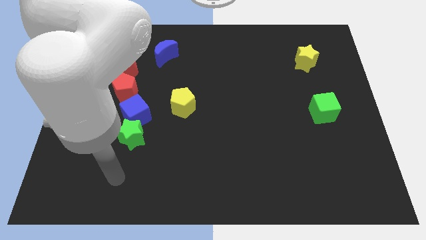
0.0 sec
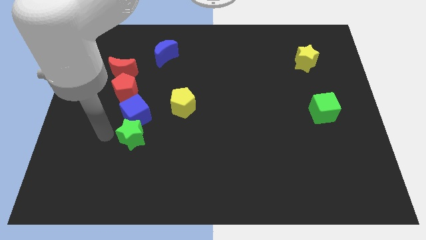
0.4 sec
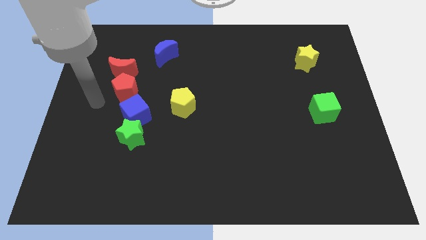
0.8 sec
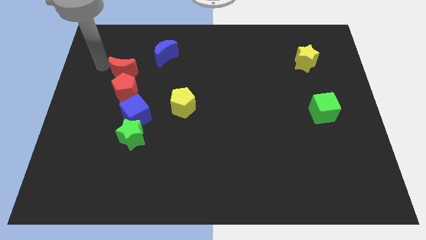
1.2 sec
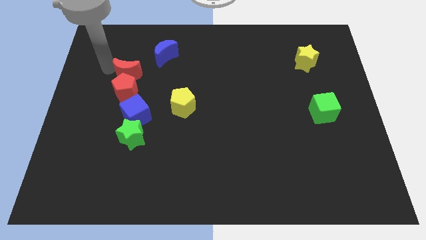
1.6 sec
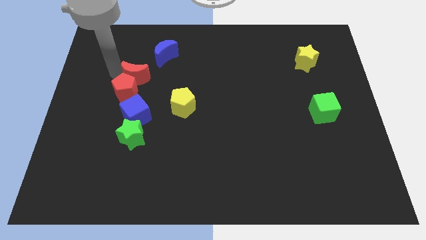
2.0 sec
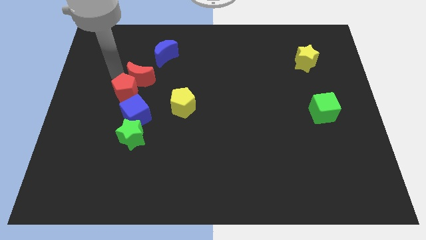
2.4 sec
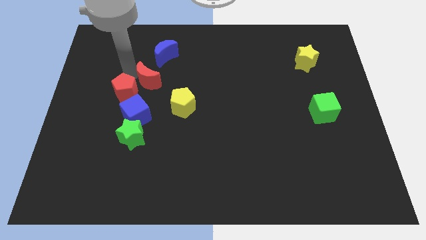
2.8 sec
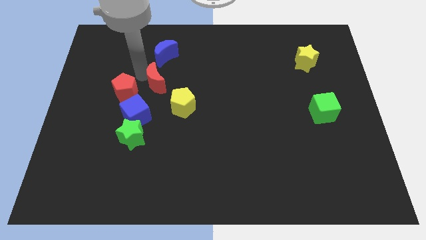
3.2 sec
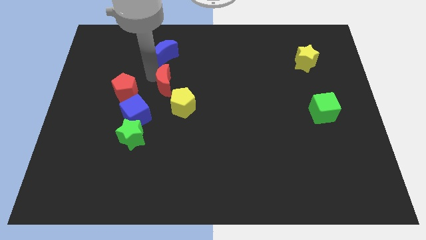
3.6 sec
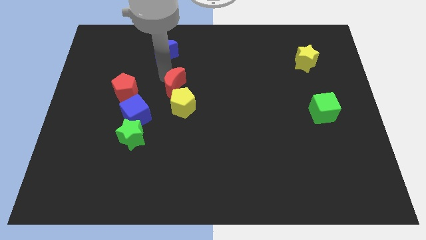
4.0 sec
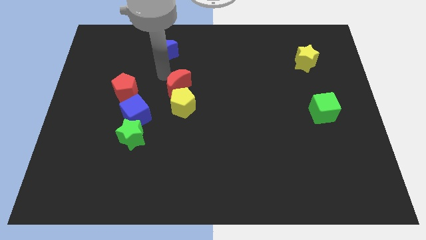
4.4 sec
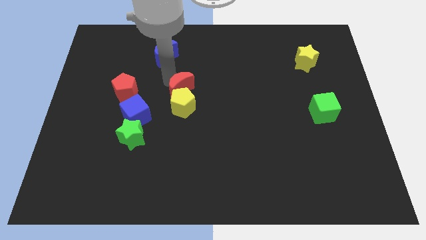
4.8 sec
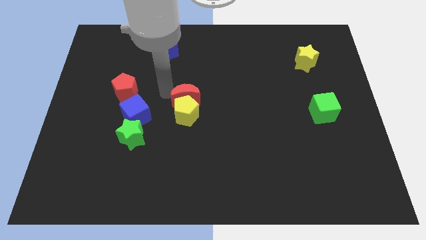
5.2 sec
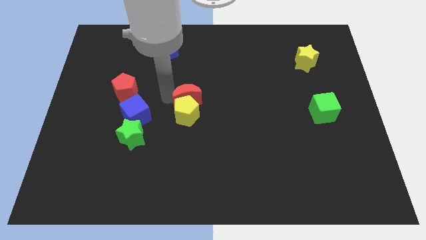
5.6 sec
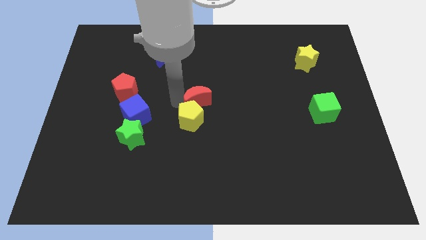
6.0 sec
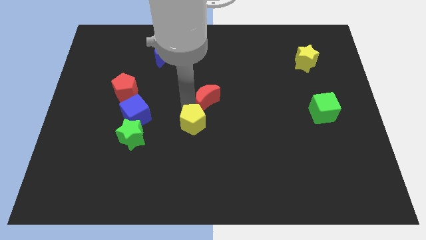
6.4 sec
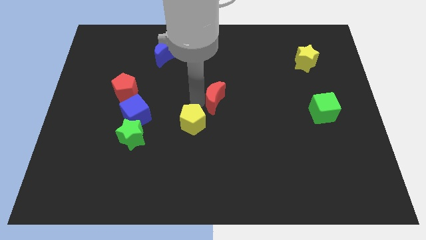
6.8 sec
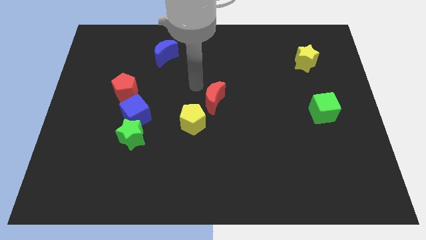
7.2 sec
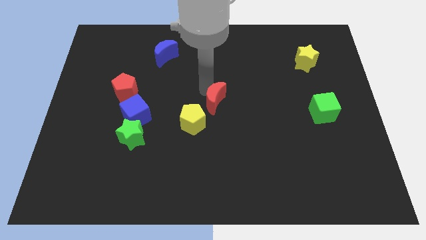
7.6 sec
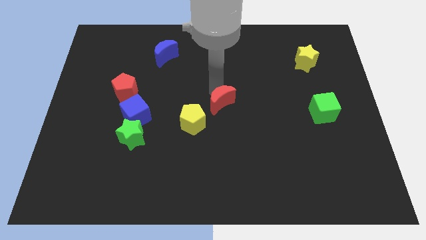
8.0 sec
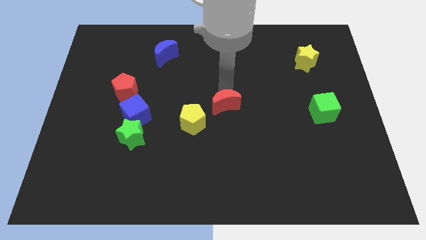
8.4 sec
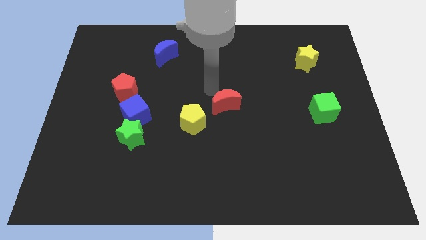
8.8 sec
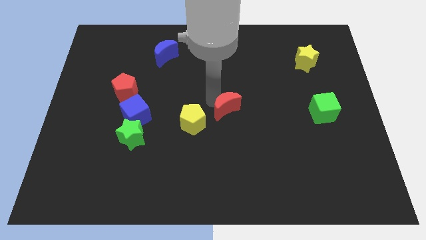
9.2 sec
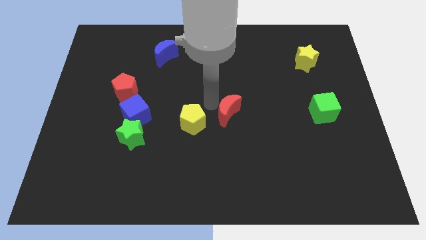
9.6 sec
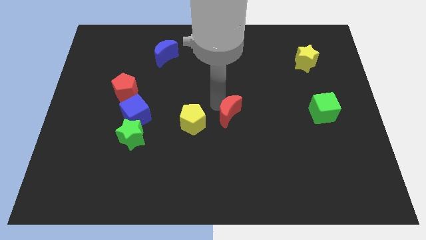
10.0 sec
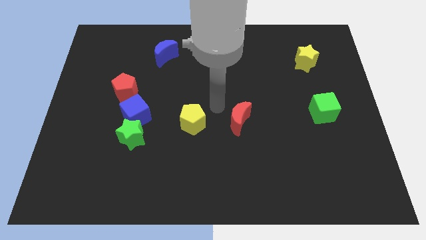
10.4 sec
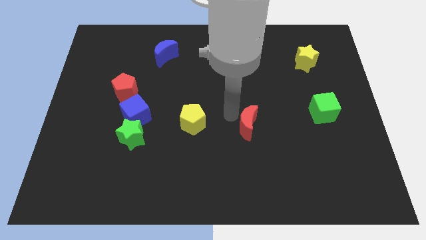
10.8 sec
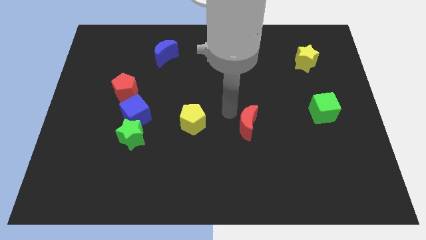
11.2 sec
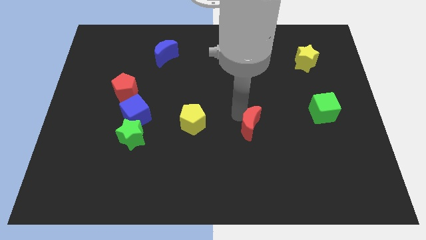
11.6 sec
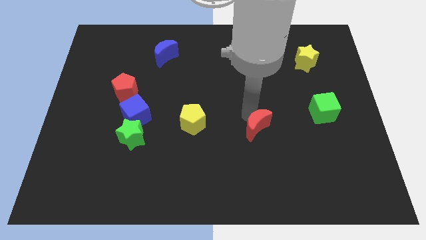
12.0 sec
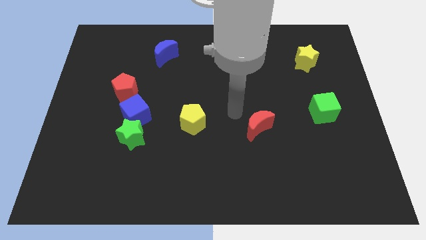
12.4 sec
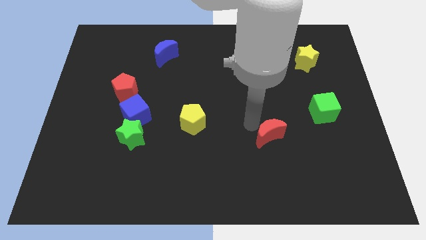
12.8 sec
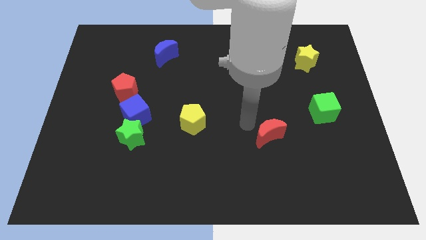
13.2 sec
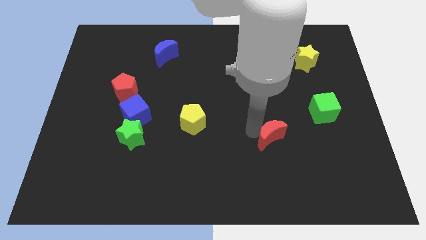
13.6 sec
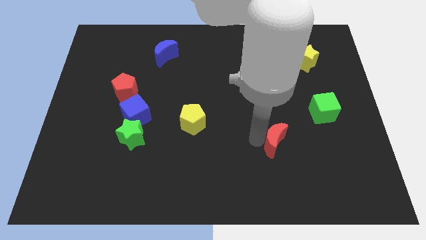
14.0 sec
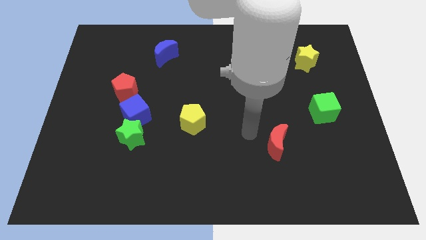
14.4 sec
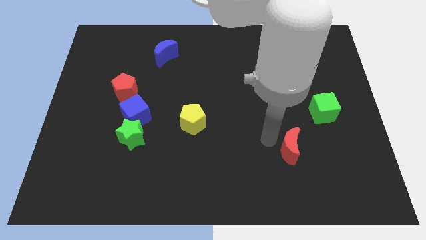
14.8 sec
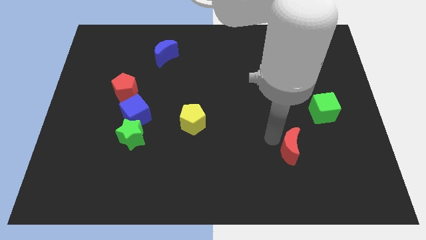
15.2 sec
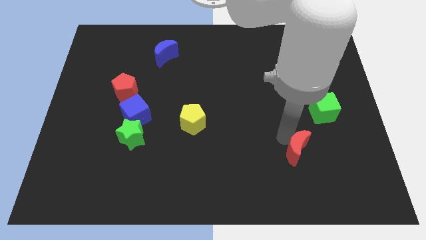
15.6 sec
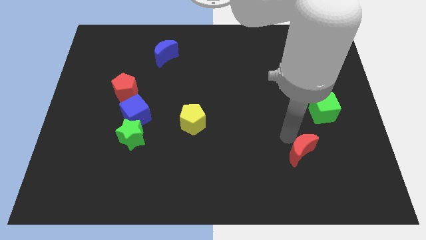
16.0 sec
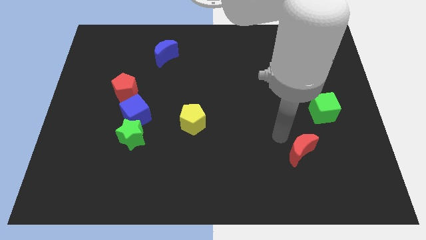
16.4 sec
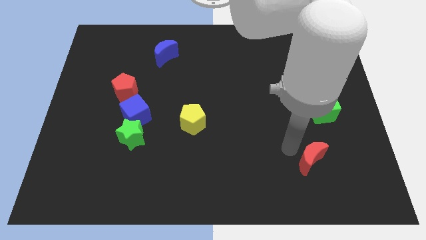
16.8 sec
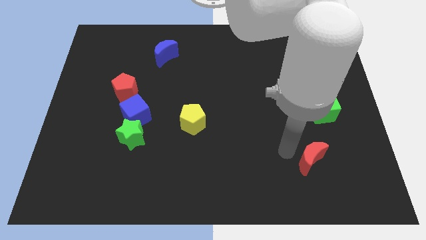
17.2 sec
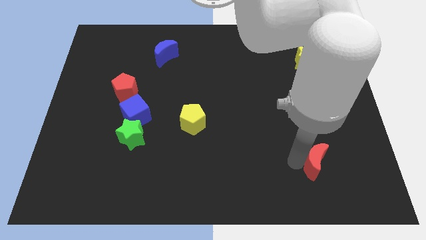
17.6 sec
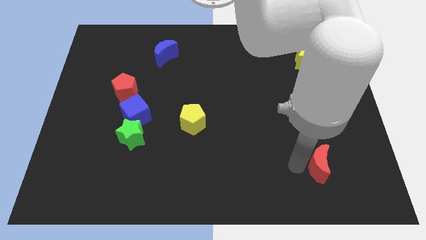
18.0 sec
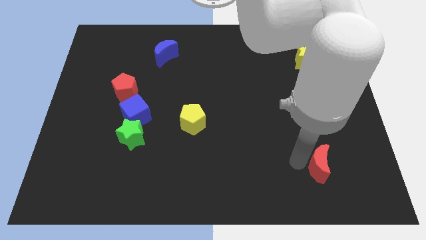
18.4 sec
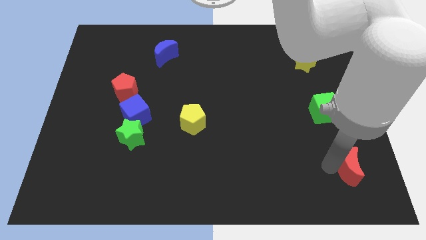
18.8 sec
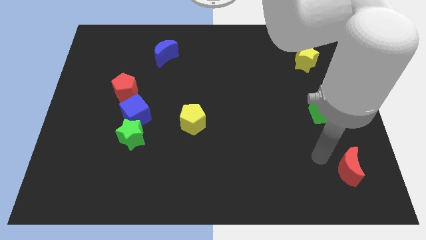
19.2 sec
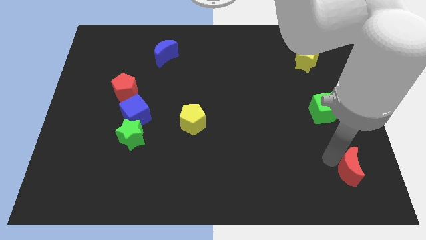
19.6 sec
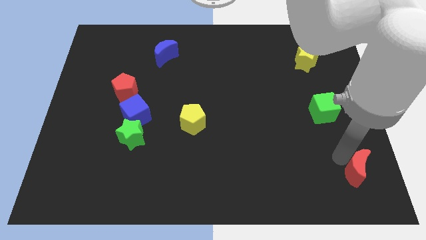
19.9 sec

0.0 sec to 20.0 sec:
move the red moon to the bottom right

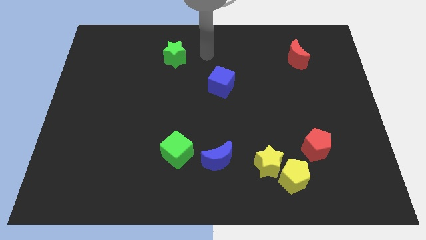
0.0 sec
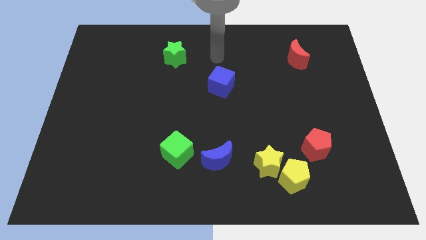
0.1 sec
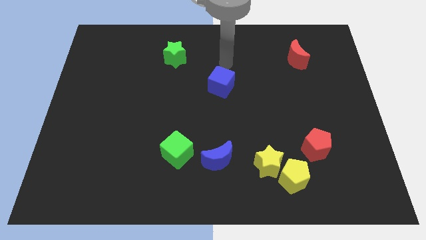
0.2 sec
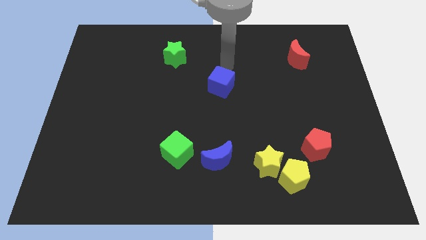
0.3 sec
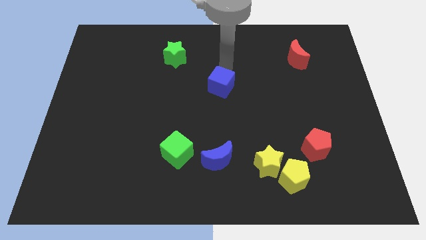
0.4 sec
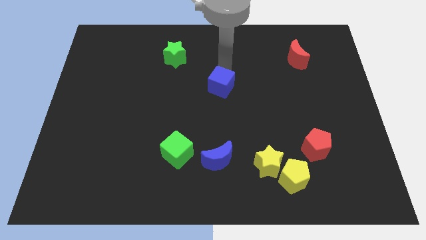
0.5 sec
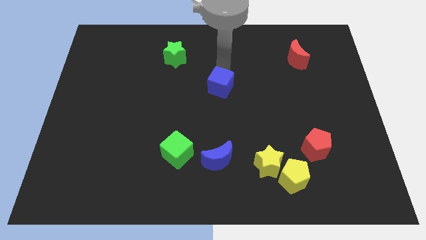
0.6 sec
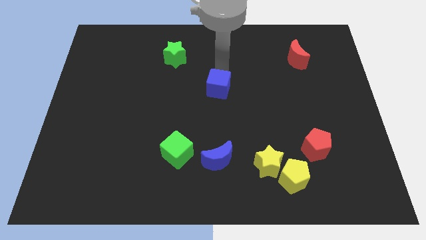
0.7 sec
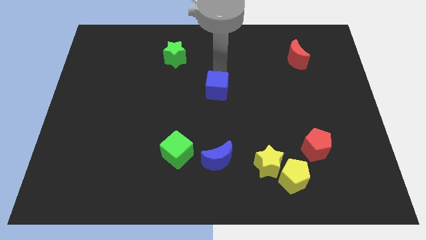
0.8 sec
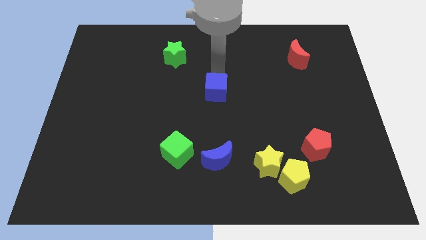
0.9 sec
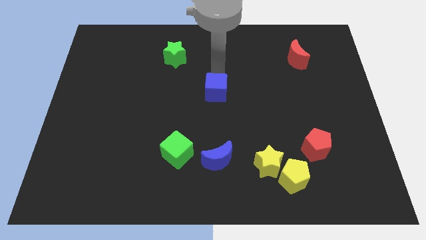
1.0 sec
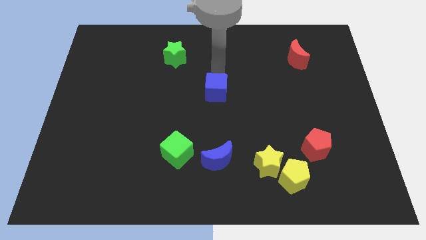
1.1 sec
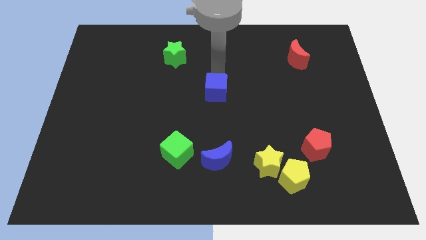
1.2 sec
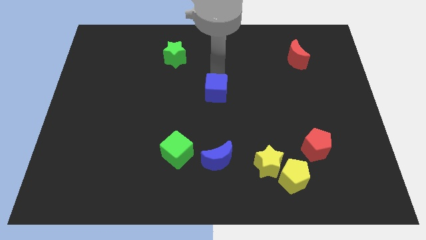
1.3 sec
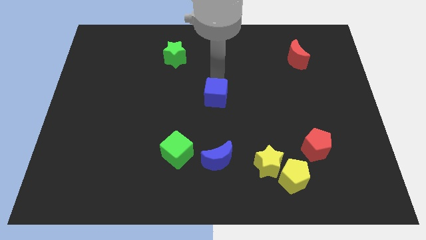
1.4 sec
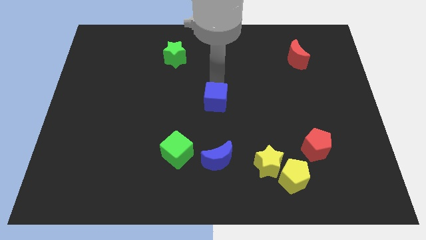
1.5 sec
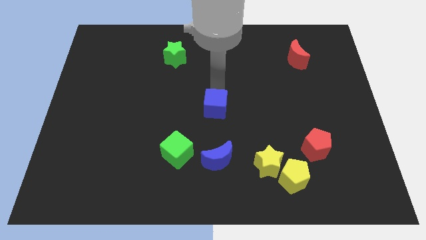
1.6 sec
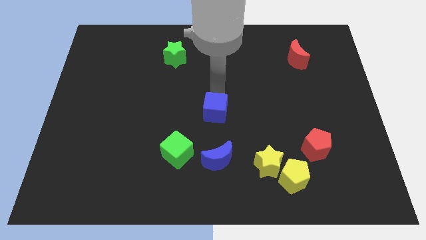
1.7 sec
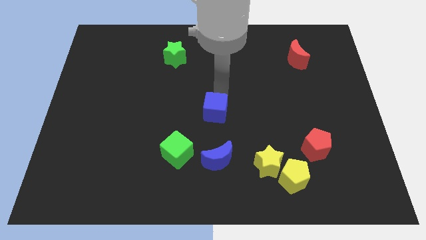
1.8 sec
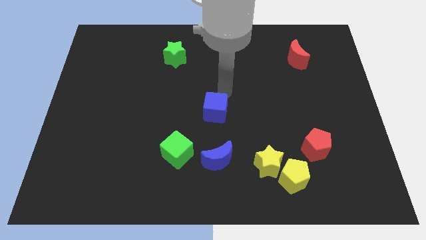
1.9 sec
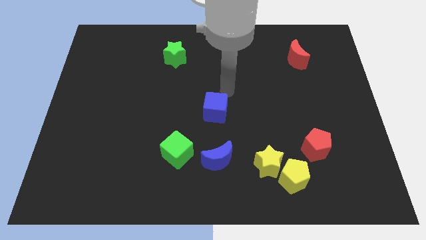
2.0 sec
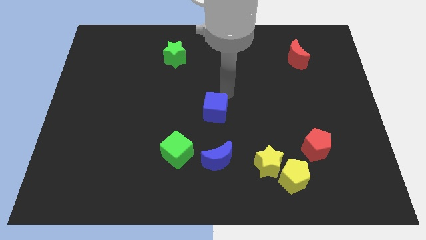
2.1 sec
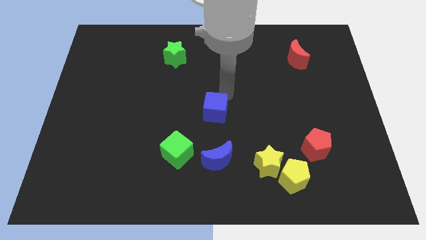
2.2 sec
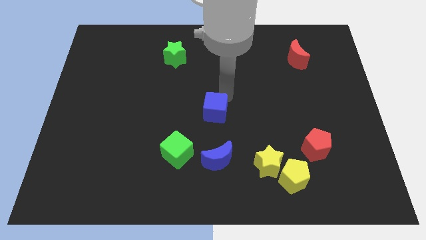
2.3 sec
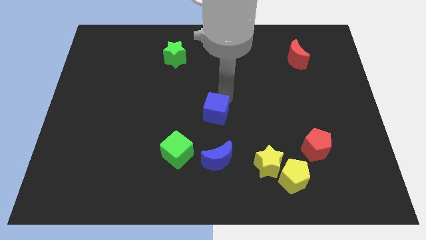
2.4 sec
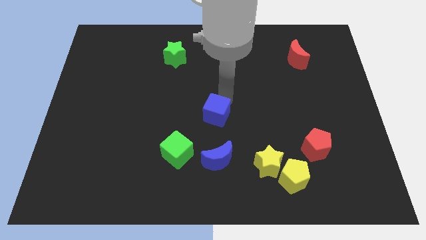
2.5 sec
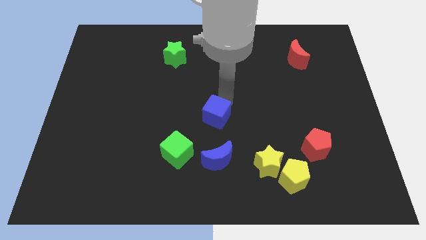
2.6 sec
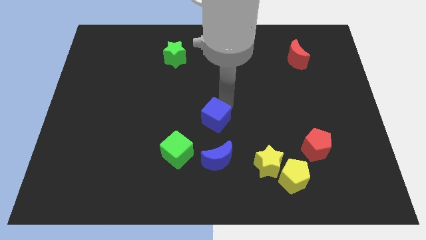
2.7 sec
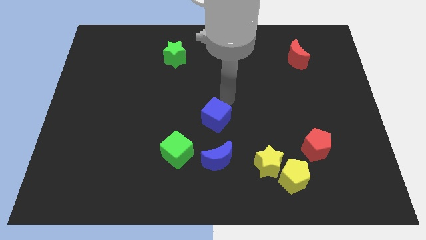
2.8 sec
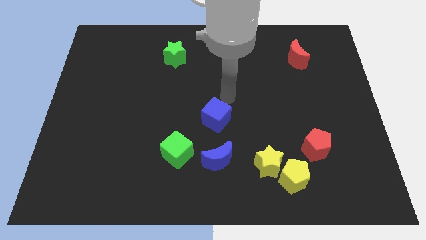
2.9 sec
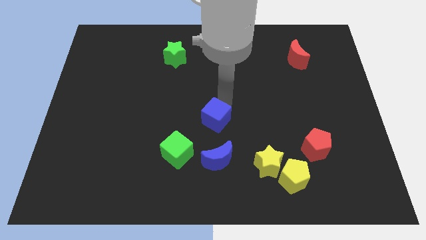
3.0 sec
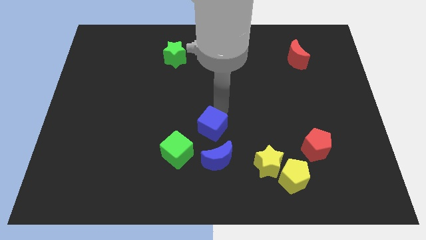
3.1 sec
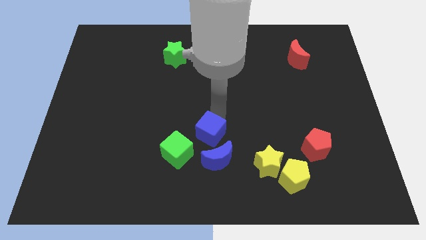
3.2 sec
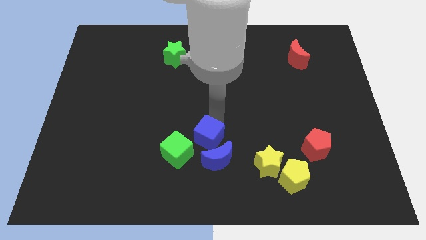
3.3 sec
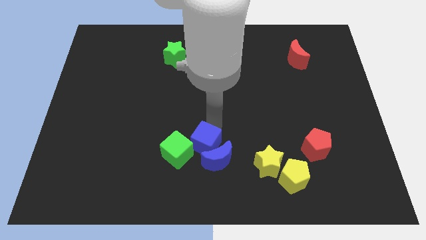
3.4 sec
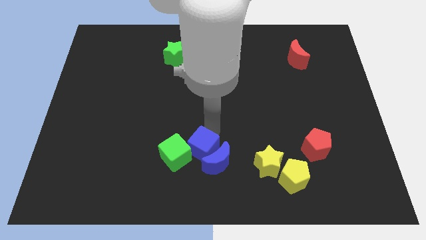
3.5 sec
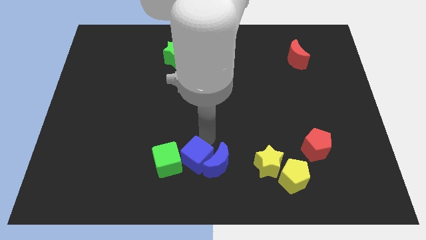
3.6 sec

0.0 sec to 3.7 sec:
move the blue cube to the bottom side
